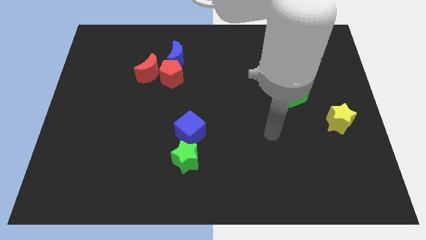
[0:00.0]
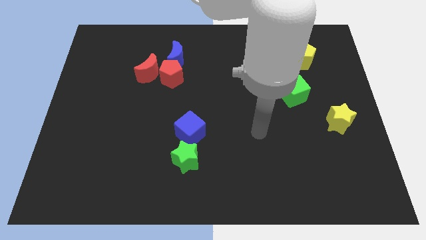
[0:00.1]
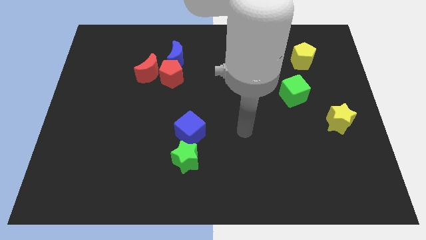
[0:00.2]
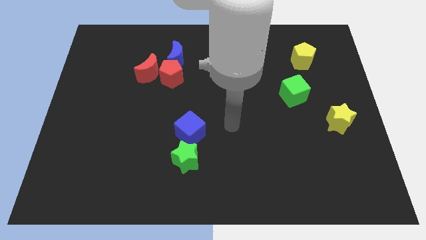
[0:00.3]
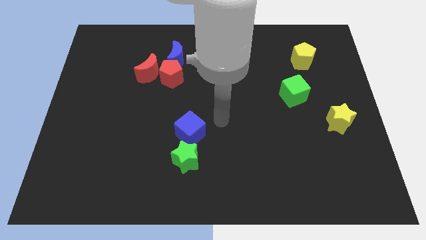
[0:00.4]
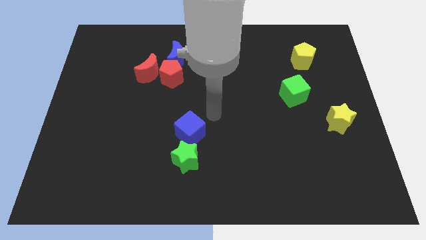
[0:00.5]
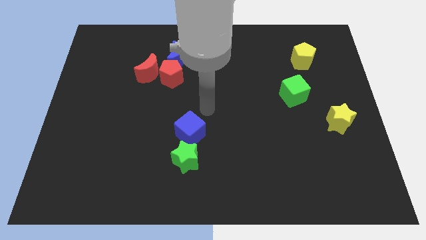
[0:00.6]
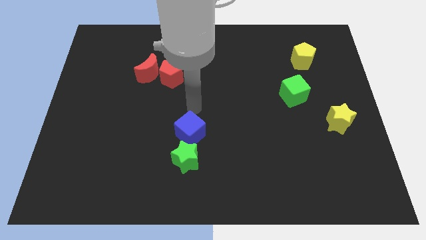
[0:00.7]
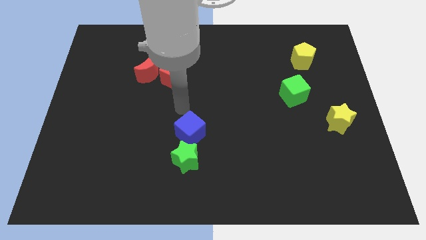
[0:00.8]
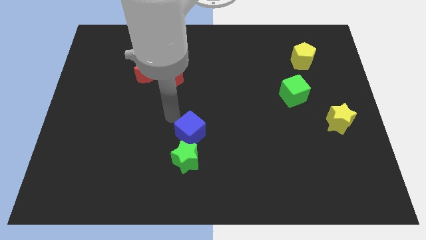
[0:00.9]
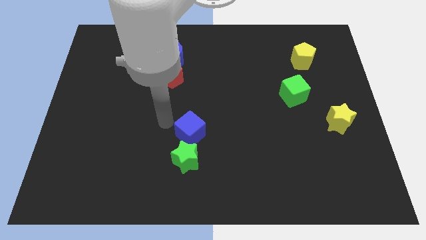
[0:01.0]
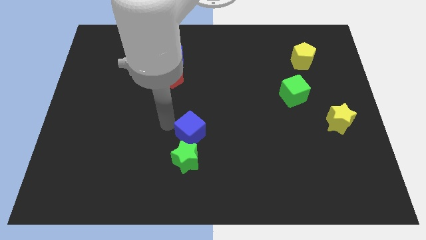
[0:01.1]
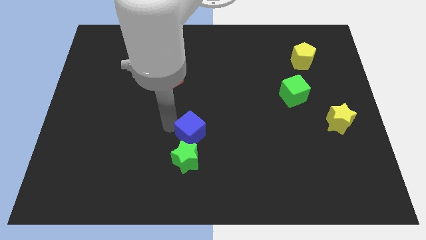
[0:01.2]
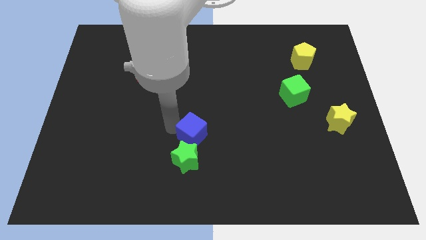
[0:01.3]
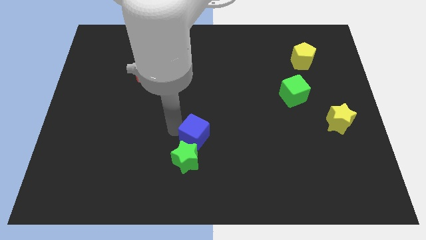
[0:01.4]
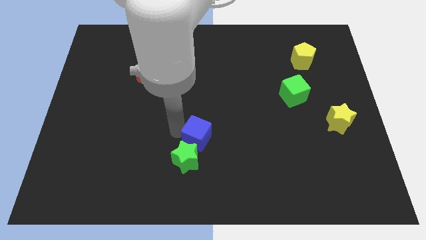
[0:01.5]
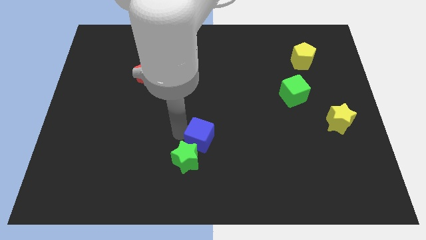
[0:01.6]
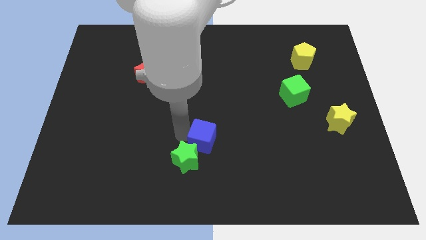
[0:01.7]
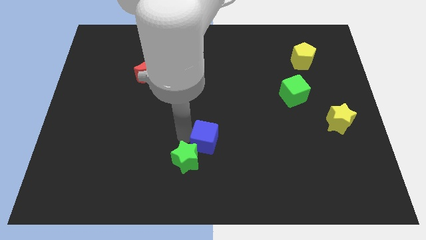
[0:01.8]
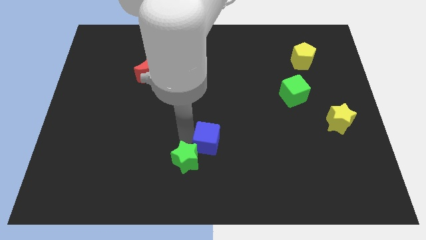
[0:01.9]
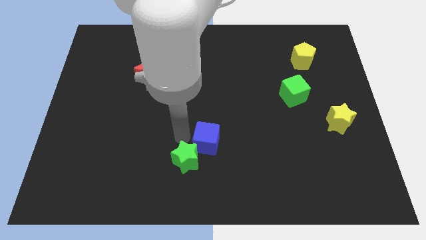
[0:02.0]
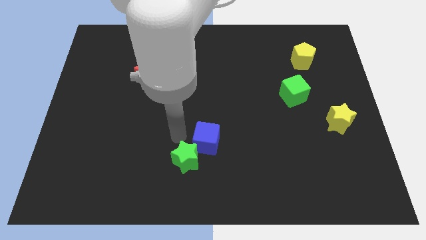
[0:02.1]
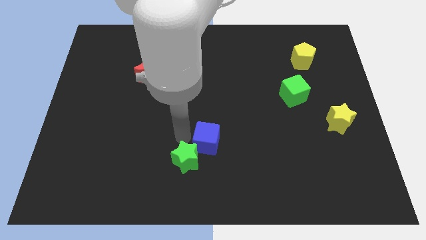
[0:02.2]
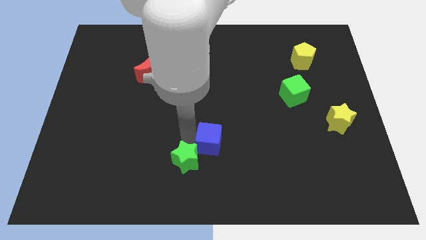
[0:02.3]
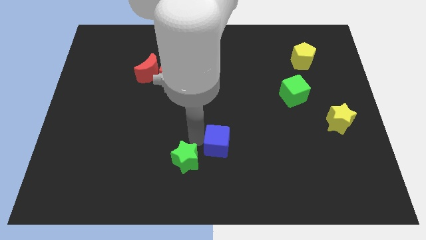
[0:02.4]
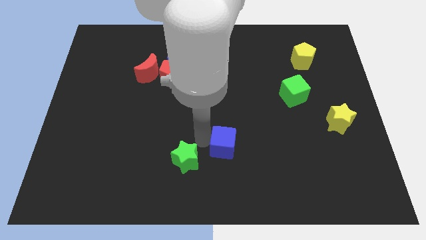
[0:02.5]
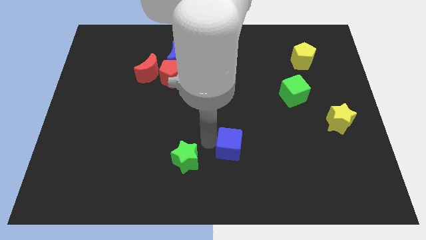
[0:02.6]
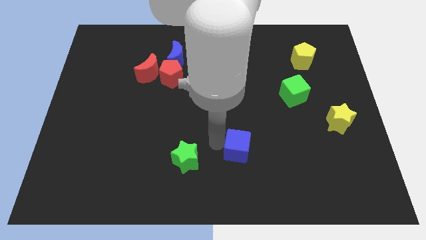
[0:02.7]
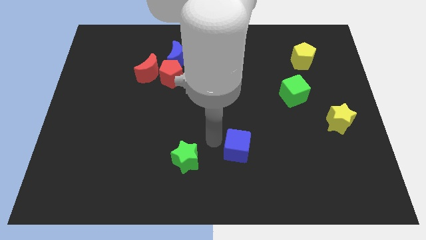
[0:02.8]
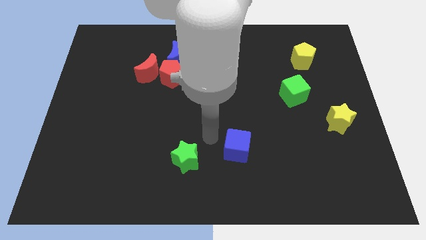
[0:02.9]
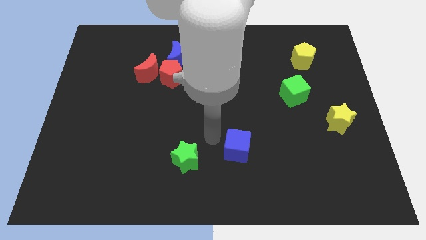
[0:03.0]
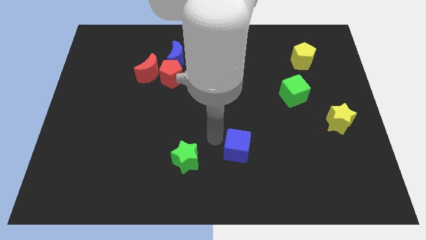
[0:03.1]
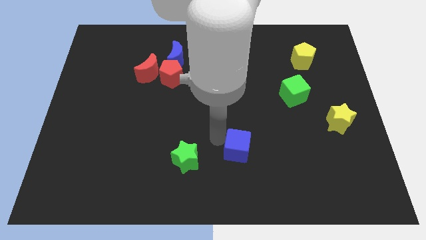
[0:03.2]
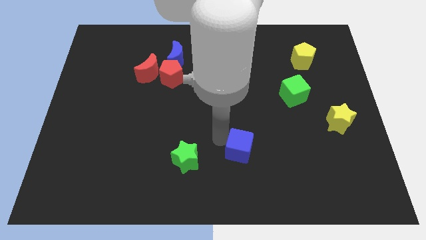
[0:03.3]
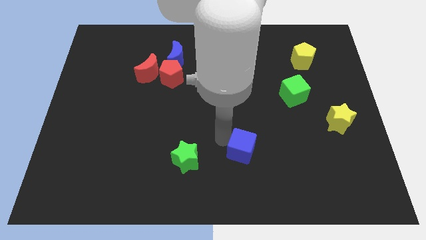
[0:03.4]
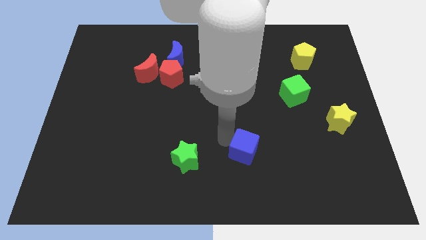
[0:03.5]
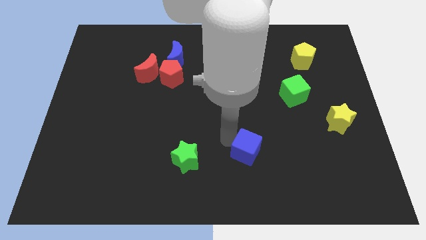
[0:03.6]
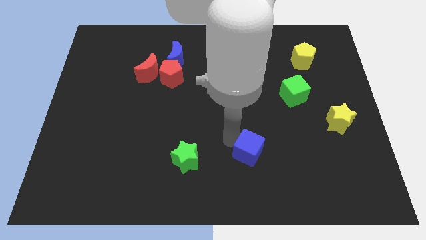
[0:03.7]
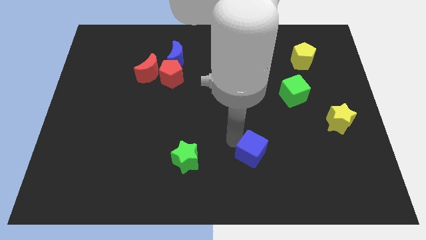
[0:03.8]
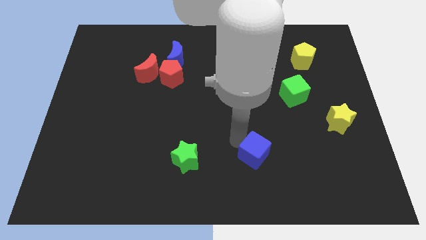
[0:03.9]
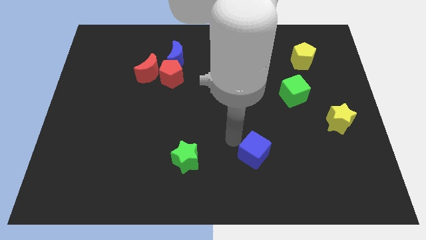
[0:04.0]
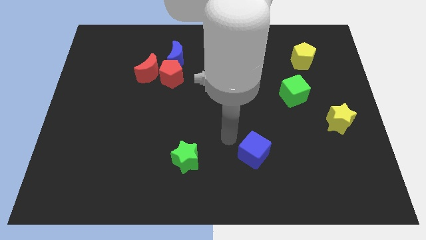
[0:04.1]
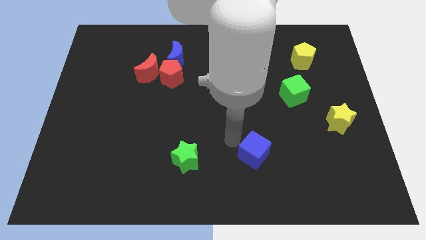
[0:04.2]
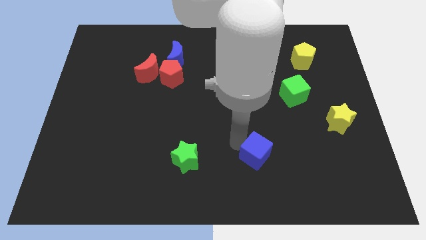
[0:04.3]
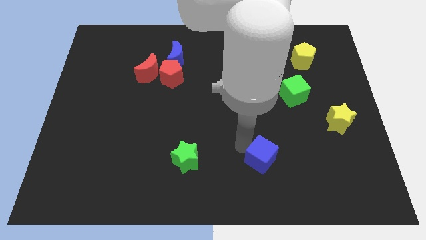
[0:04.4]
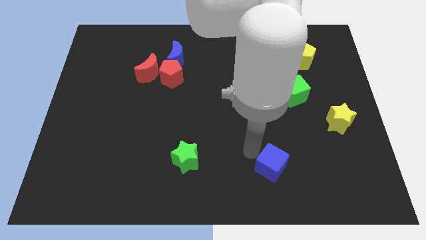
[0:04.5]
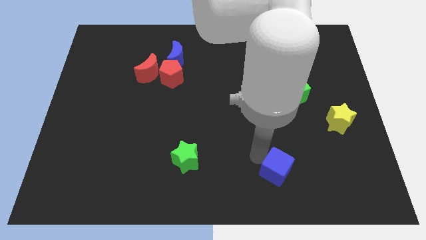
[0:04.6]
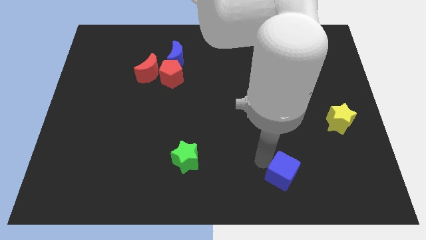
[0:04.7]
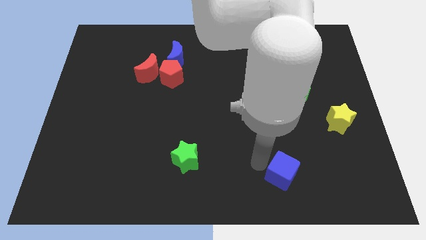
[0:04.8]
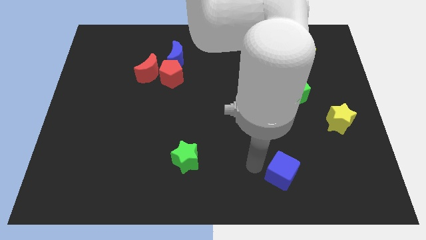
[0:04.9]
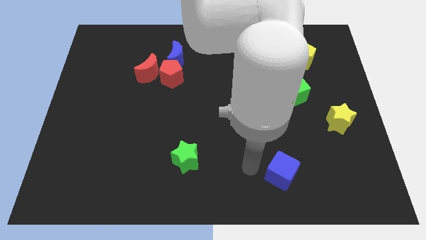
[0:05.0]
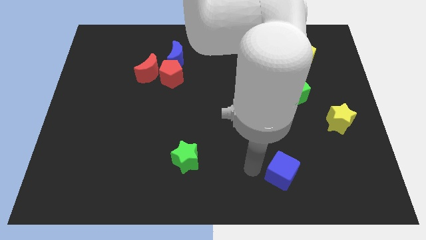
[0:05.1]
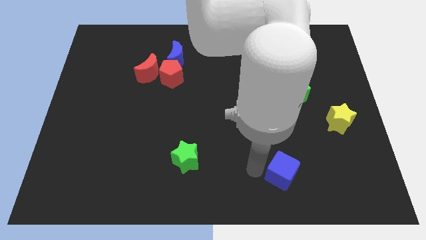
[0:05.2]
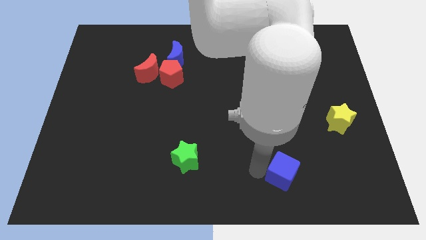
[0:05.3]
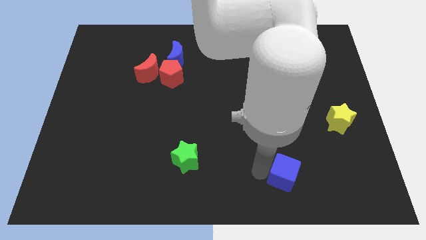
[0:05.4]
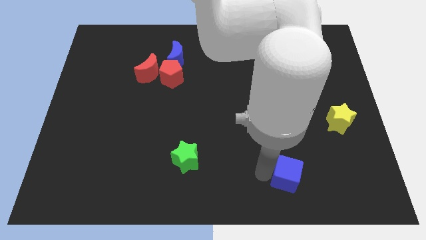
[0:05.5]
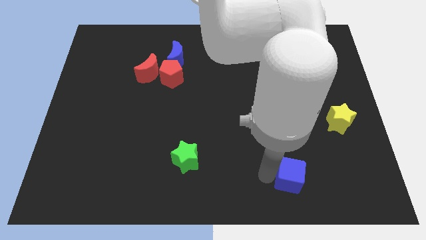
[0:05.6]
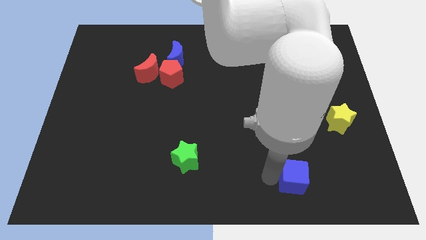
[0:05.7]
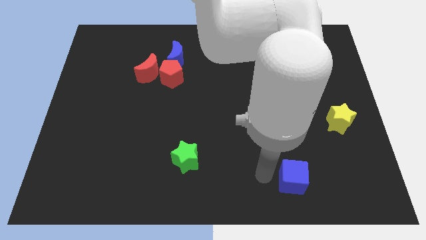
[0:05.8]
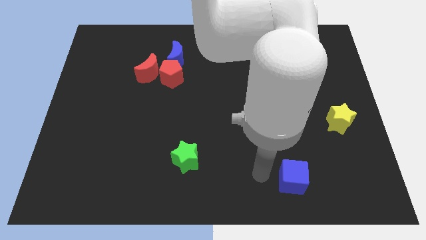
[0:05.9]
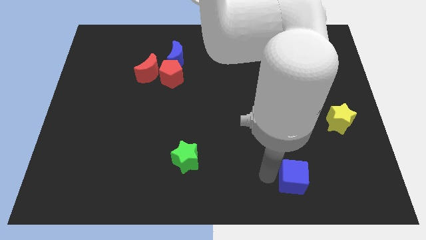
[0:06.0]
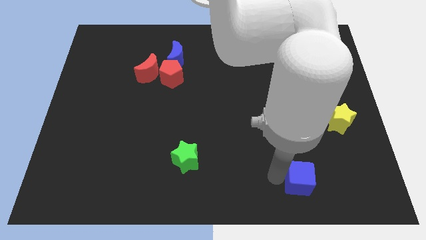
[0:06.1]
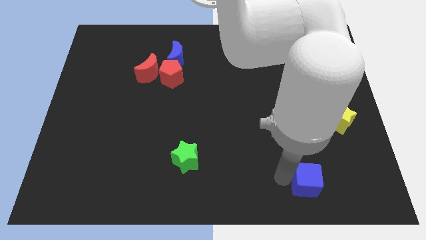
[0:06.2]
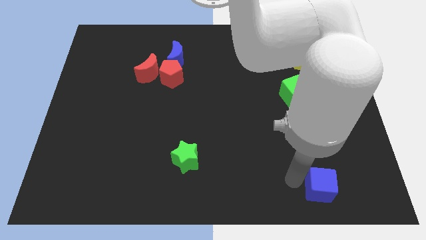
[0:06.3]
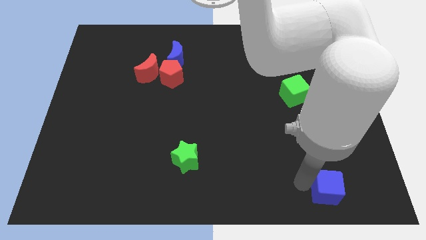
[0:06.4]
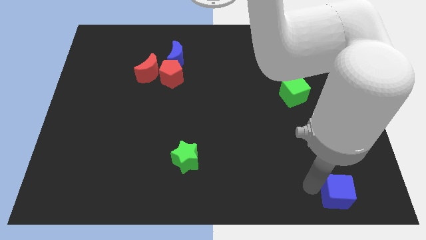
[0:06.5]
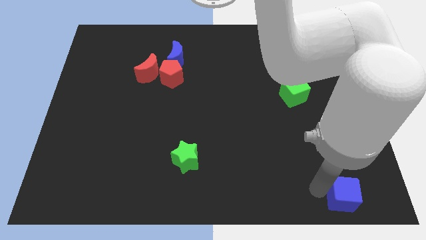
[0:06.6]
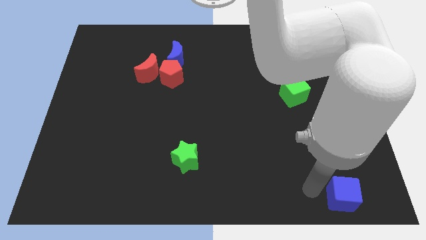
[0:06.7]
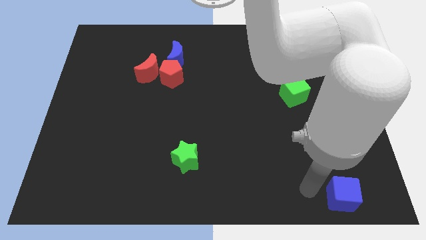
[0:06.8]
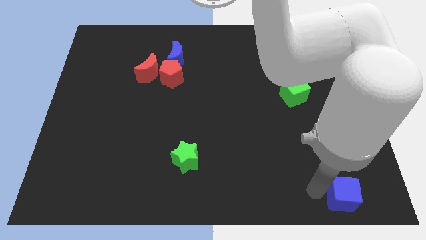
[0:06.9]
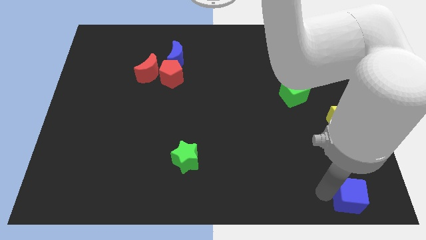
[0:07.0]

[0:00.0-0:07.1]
push the blue cube to the bottom right corner
